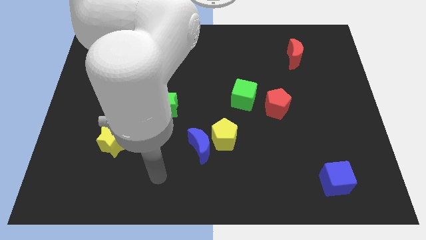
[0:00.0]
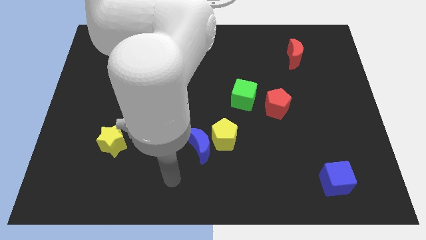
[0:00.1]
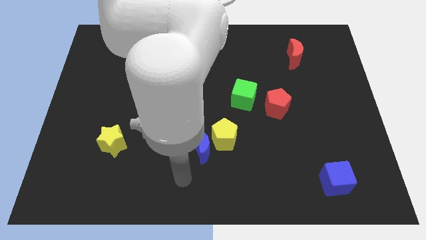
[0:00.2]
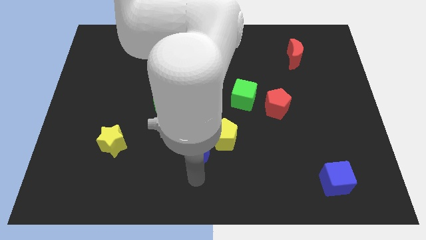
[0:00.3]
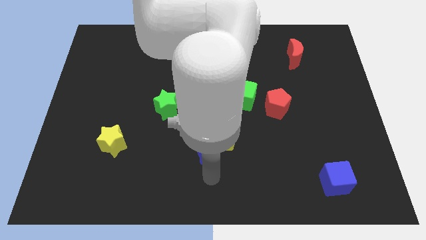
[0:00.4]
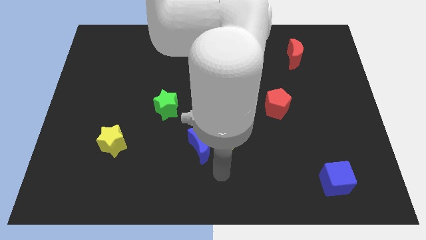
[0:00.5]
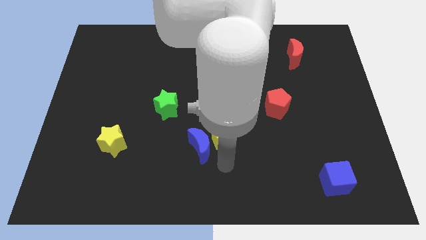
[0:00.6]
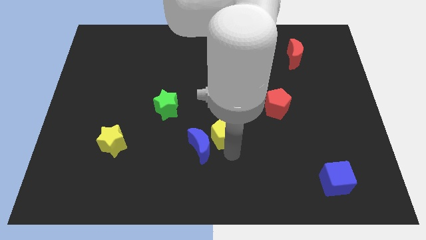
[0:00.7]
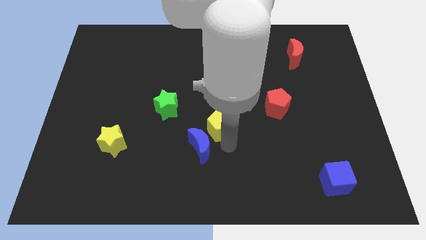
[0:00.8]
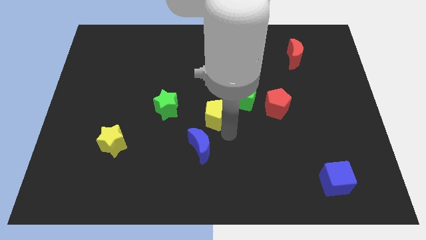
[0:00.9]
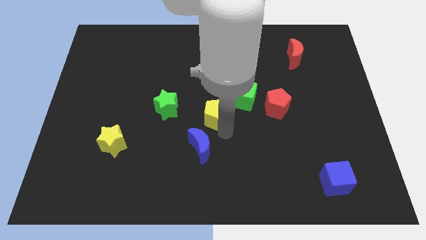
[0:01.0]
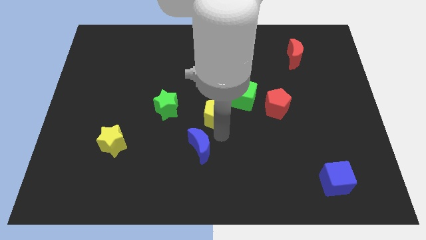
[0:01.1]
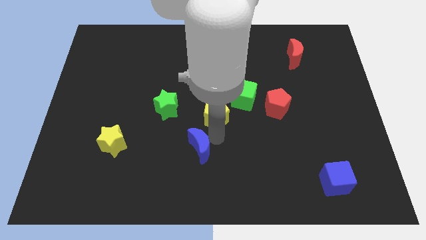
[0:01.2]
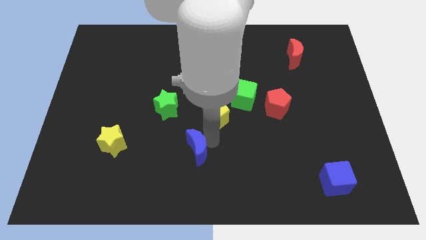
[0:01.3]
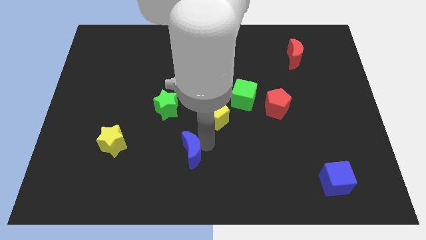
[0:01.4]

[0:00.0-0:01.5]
separate the blue moon from the yellow pentagon

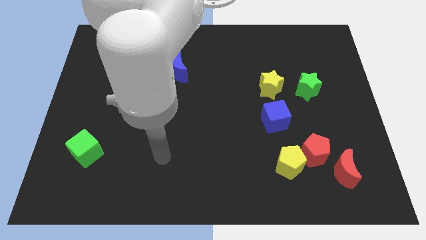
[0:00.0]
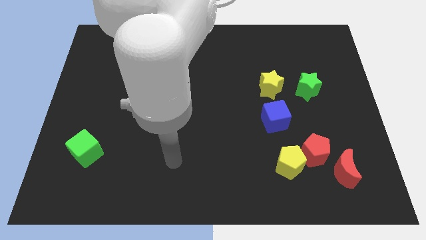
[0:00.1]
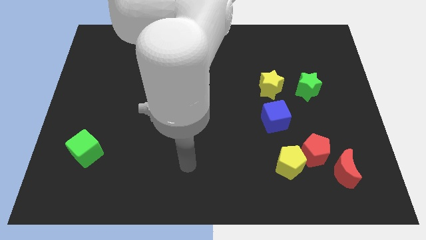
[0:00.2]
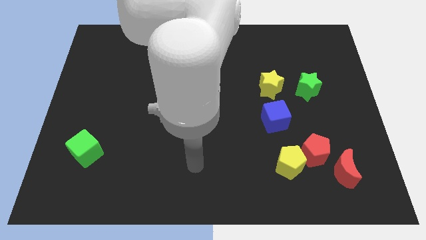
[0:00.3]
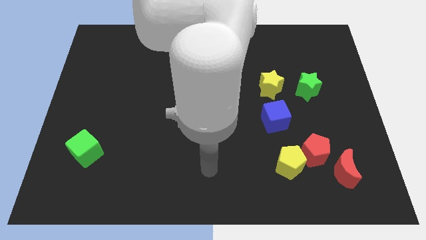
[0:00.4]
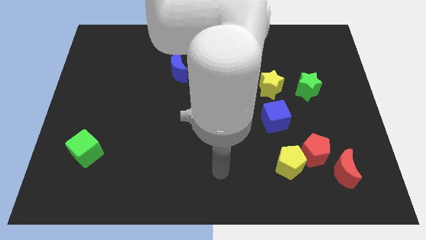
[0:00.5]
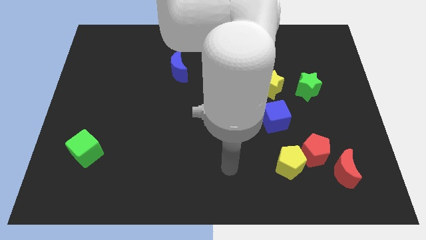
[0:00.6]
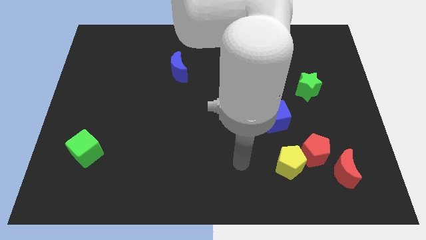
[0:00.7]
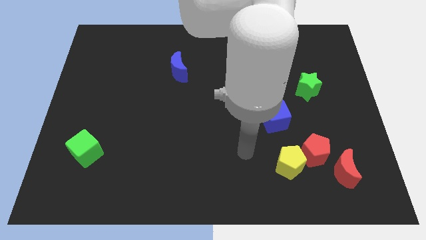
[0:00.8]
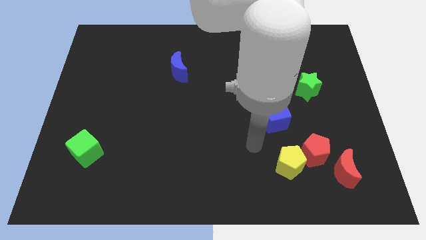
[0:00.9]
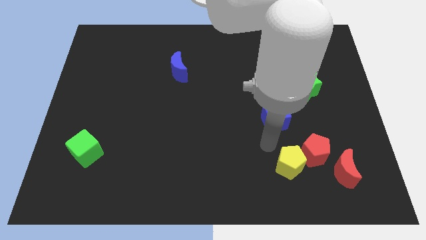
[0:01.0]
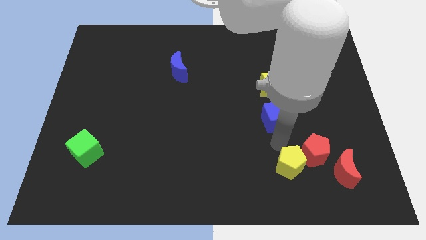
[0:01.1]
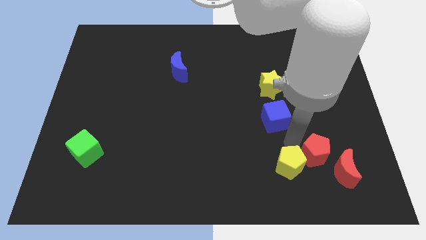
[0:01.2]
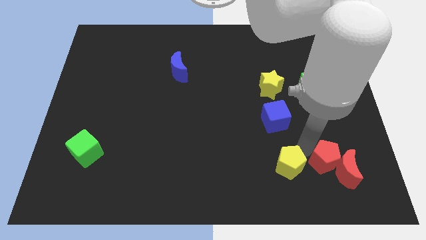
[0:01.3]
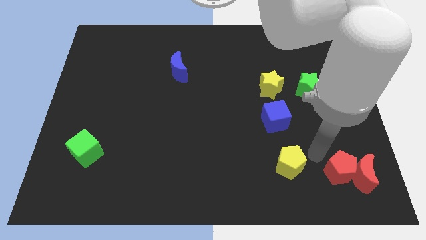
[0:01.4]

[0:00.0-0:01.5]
pull the yellow pentagon apart from the red pentagon

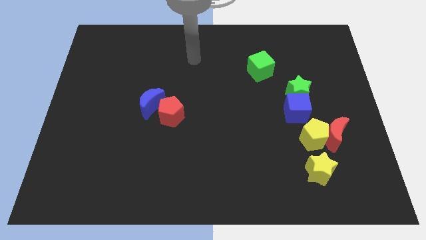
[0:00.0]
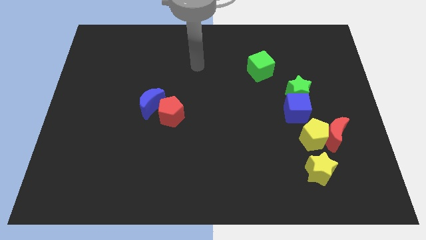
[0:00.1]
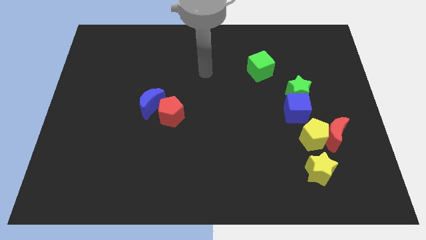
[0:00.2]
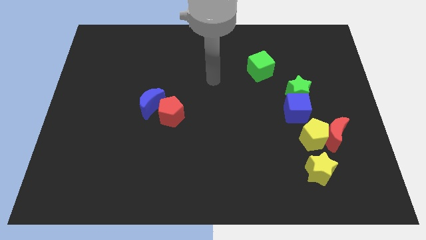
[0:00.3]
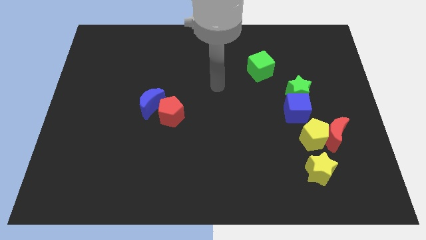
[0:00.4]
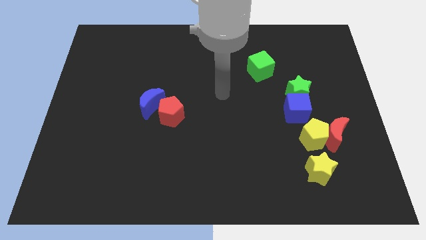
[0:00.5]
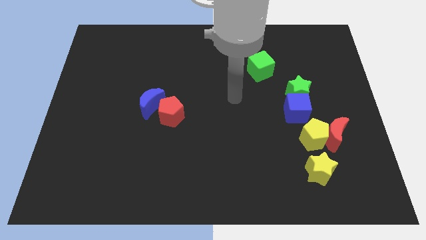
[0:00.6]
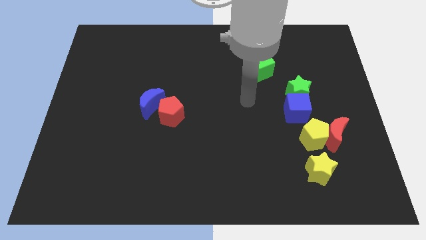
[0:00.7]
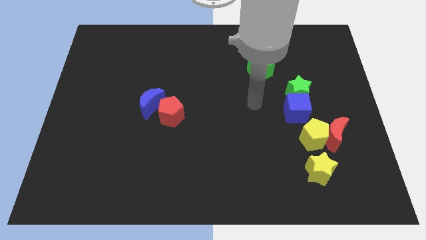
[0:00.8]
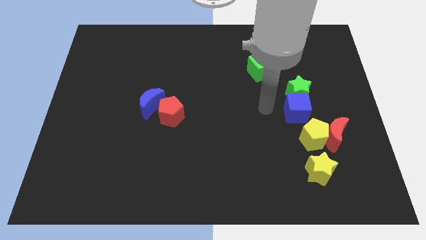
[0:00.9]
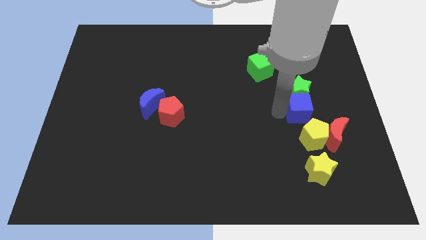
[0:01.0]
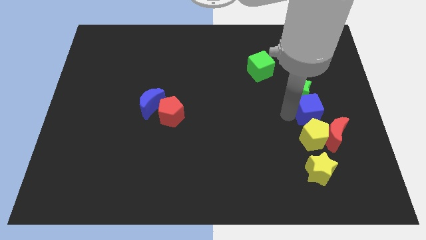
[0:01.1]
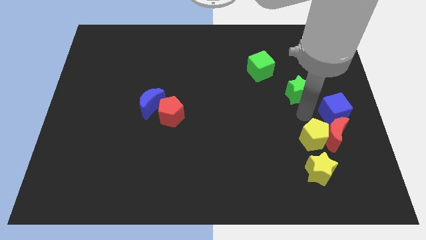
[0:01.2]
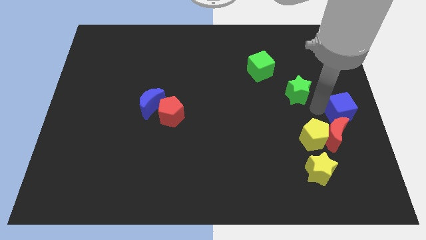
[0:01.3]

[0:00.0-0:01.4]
pull the green star apart from the blue cube

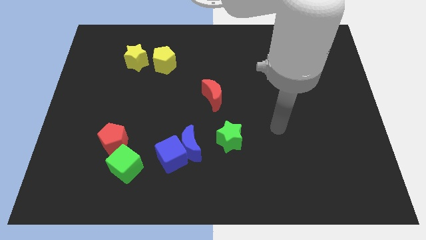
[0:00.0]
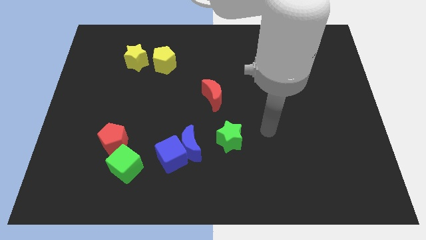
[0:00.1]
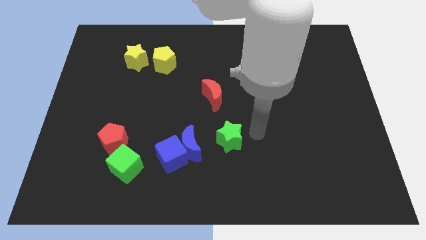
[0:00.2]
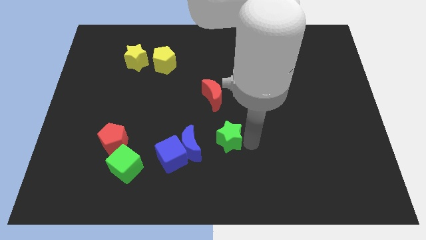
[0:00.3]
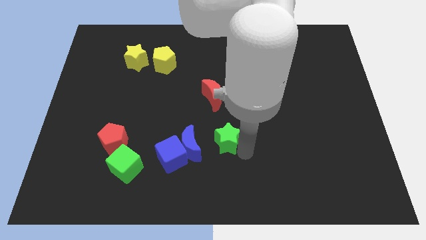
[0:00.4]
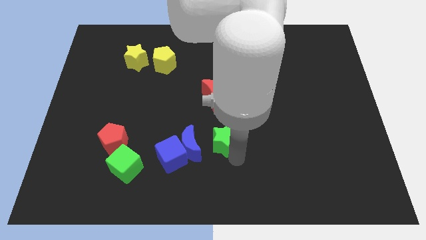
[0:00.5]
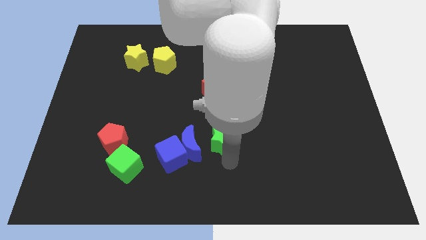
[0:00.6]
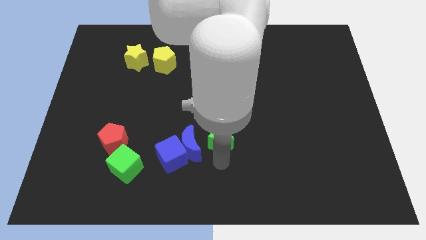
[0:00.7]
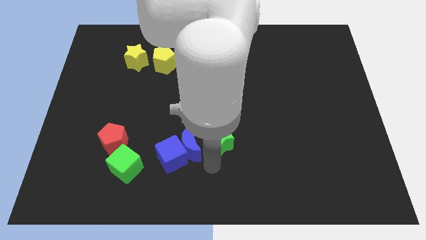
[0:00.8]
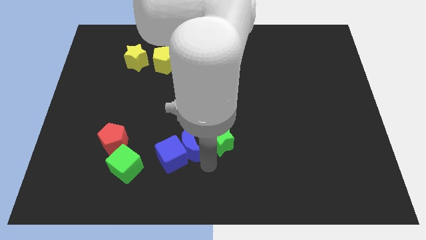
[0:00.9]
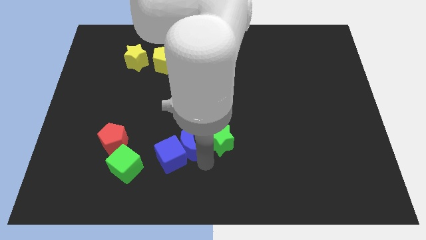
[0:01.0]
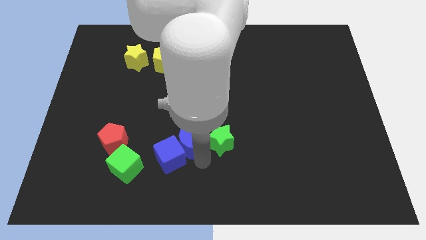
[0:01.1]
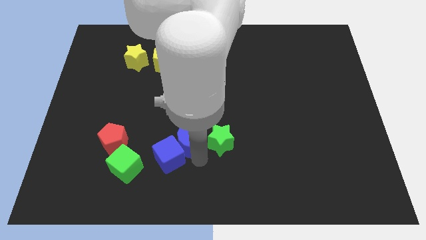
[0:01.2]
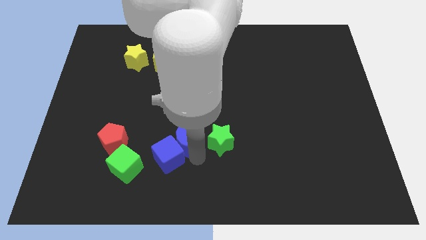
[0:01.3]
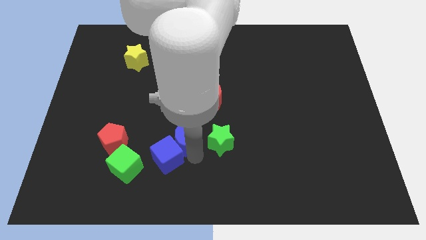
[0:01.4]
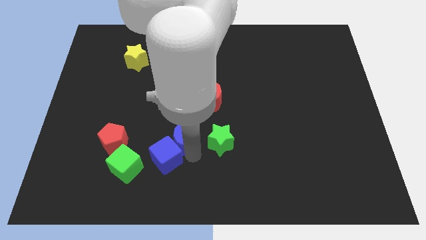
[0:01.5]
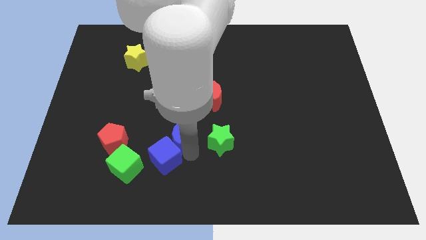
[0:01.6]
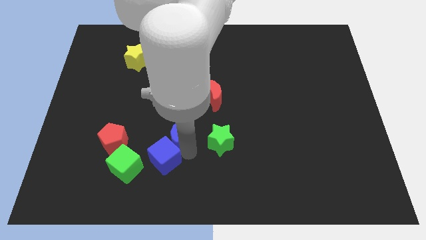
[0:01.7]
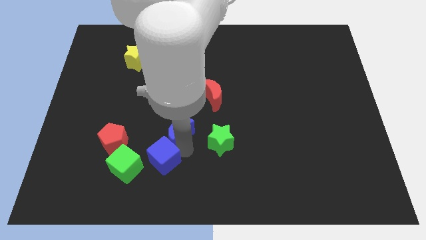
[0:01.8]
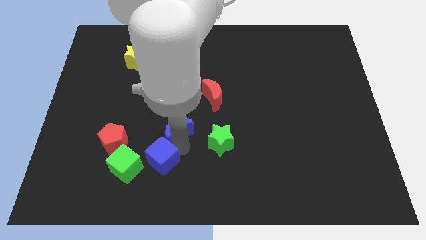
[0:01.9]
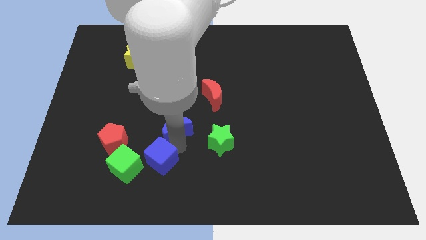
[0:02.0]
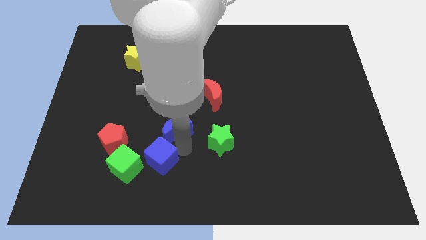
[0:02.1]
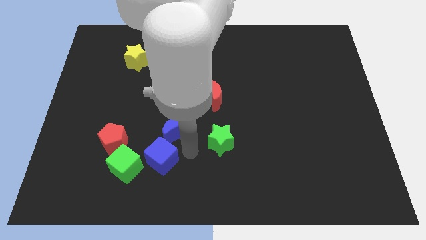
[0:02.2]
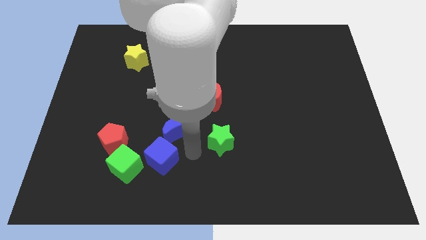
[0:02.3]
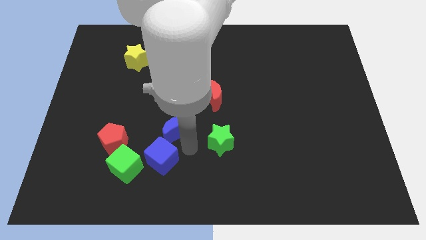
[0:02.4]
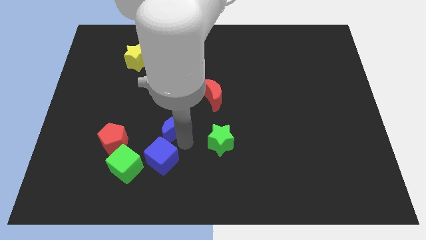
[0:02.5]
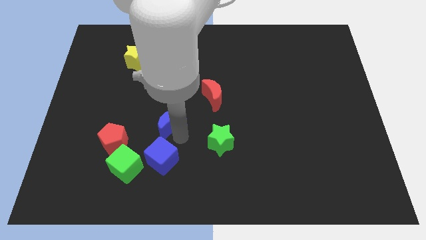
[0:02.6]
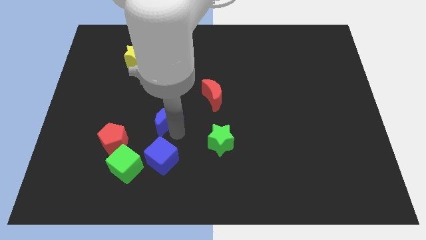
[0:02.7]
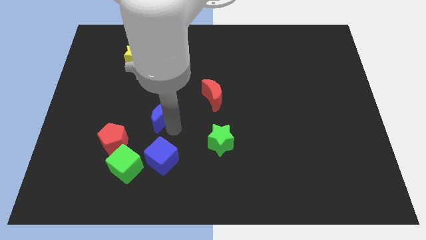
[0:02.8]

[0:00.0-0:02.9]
pull the blue moon apart from the blue cube and green star

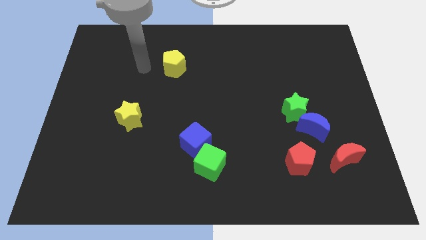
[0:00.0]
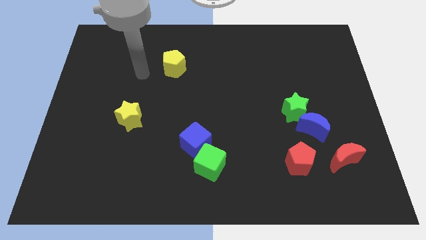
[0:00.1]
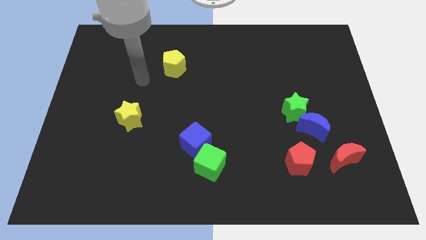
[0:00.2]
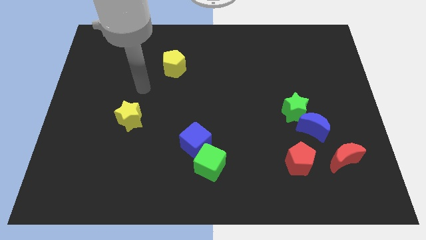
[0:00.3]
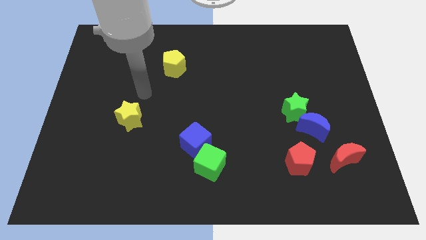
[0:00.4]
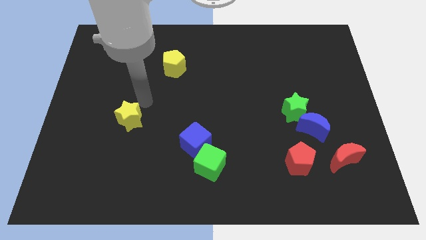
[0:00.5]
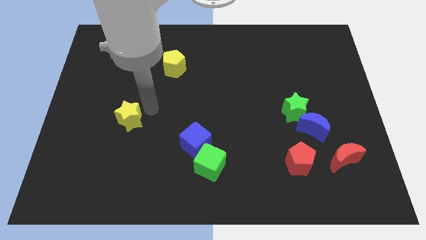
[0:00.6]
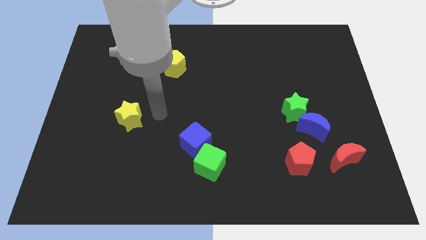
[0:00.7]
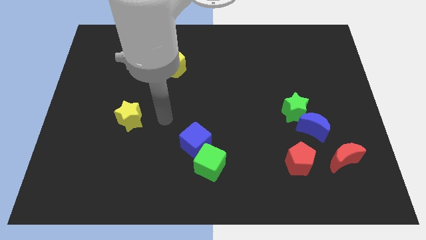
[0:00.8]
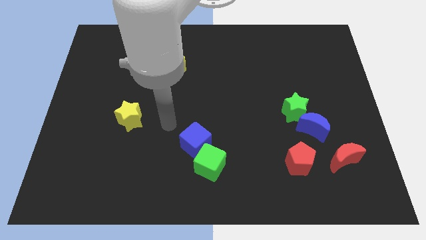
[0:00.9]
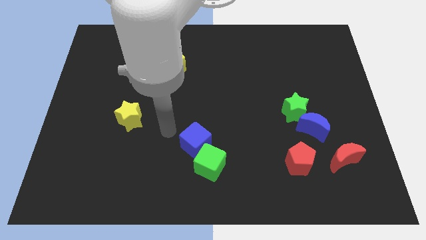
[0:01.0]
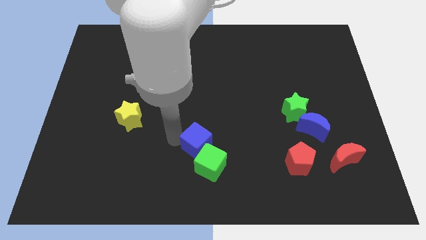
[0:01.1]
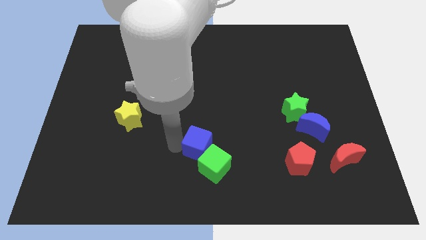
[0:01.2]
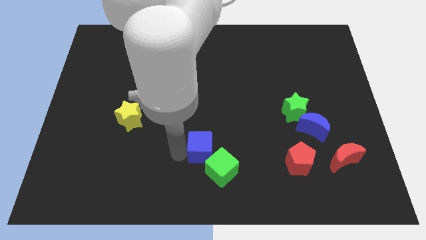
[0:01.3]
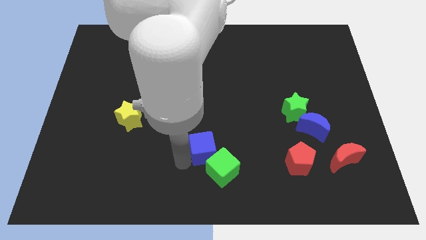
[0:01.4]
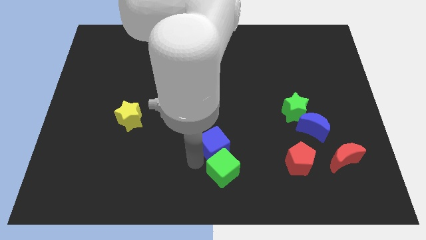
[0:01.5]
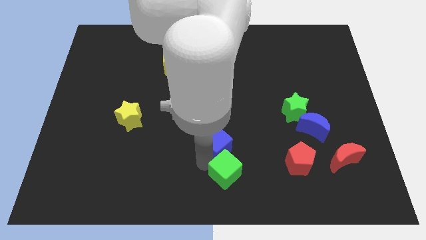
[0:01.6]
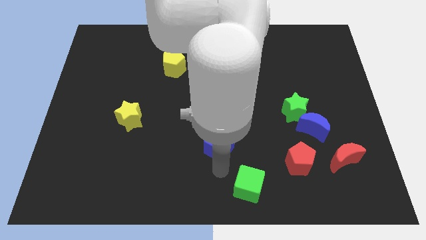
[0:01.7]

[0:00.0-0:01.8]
pull the blue cube apart from the green cube

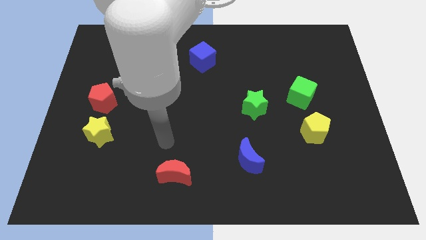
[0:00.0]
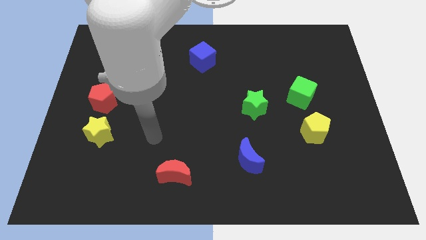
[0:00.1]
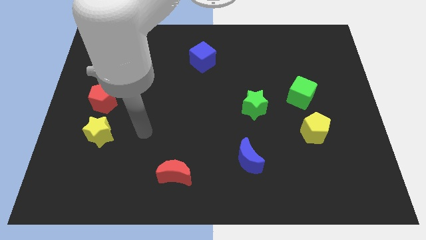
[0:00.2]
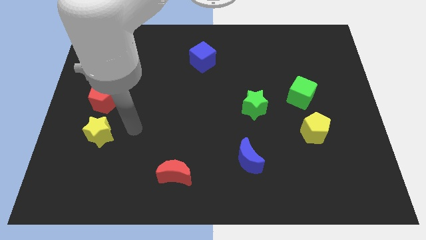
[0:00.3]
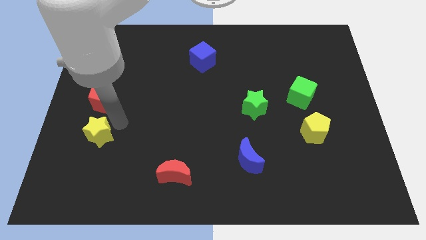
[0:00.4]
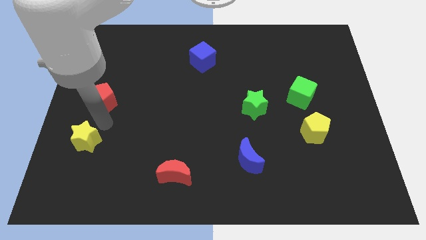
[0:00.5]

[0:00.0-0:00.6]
separate the red pentagon from the yellow star
